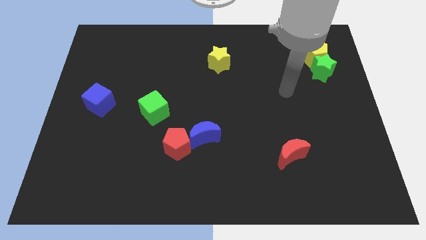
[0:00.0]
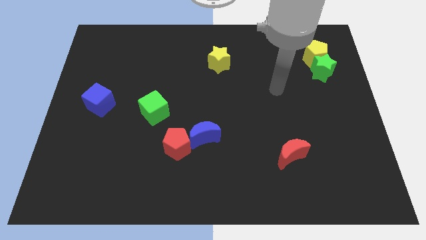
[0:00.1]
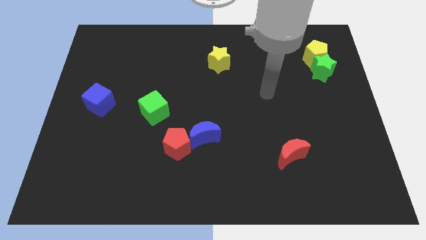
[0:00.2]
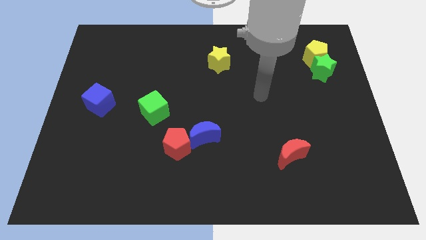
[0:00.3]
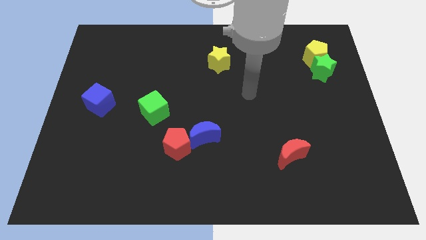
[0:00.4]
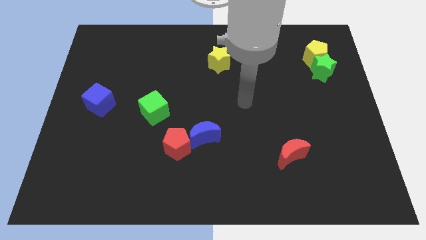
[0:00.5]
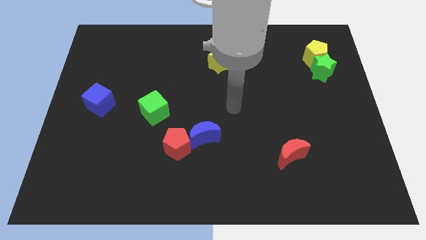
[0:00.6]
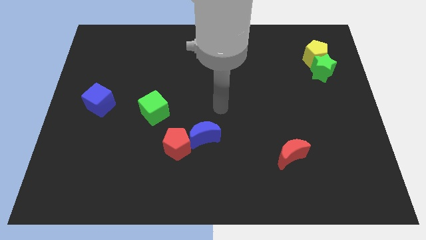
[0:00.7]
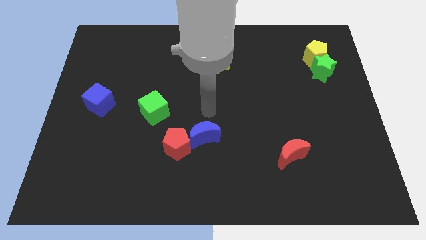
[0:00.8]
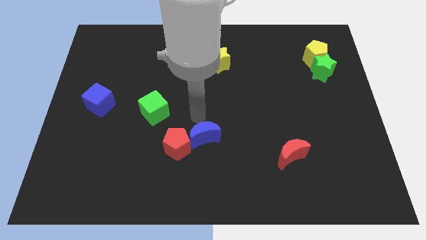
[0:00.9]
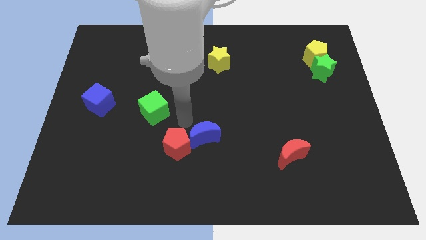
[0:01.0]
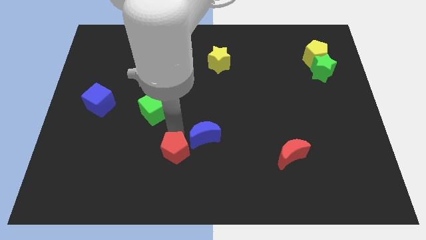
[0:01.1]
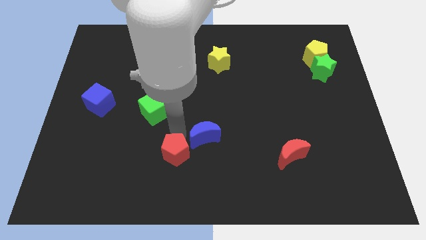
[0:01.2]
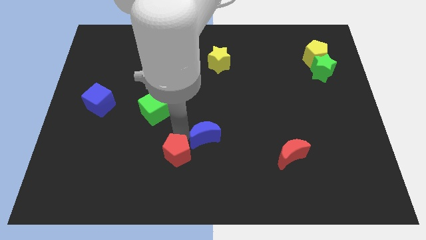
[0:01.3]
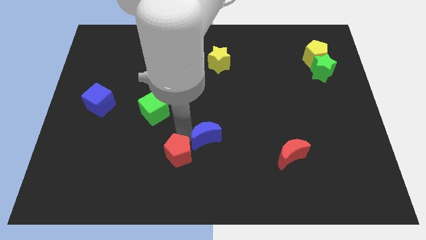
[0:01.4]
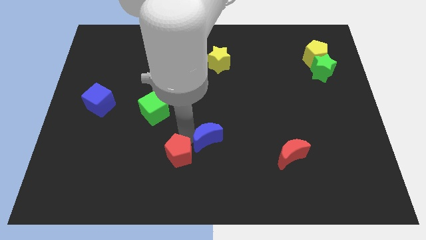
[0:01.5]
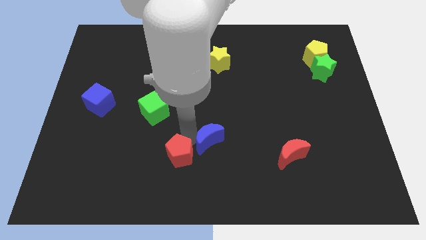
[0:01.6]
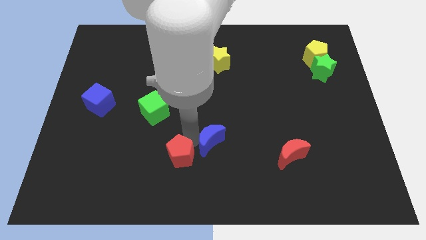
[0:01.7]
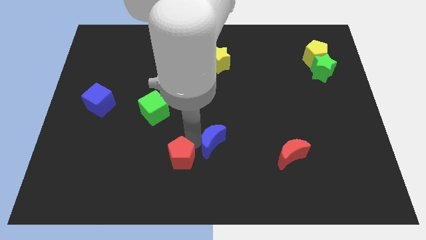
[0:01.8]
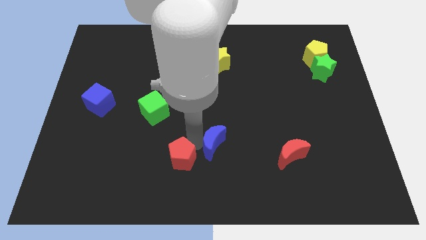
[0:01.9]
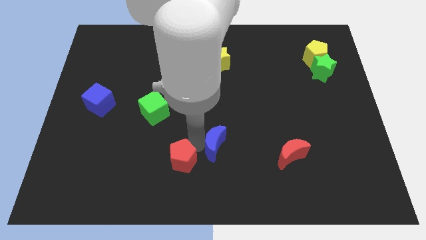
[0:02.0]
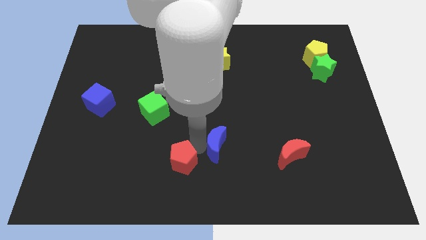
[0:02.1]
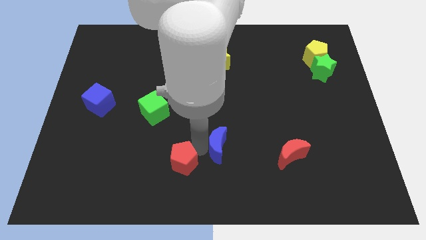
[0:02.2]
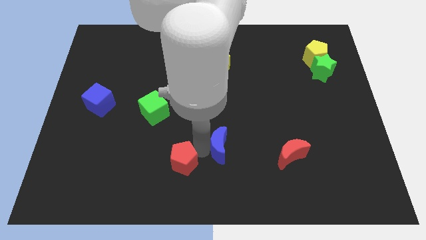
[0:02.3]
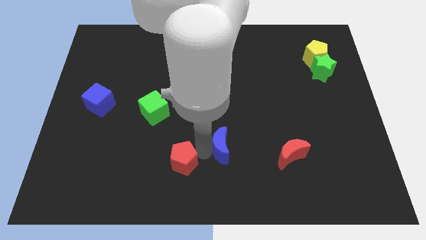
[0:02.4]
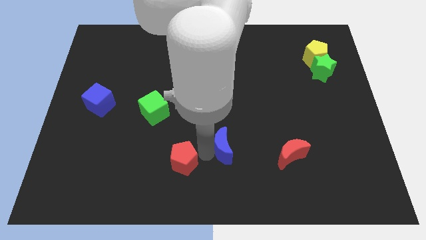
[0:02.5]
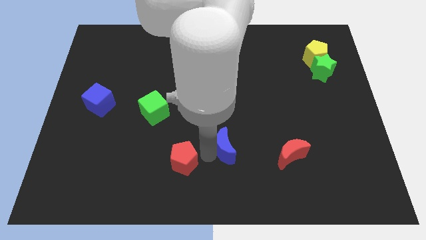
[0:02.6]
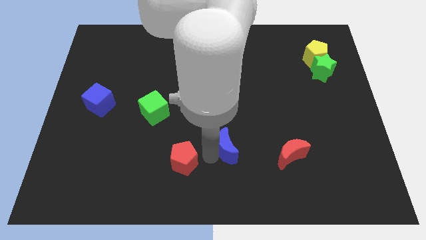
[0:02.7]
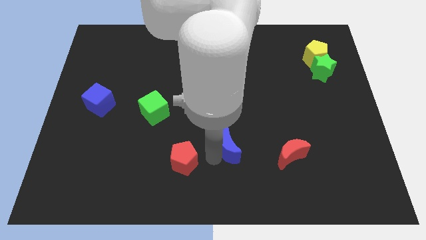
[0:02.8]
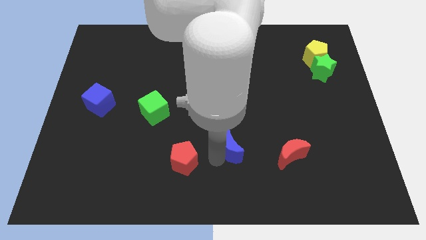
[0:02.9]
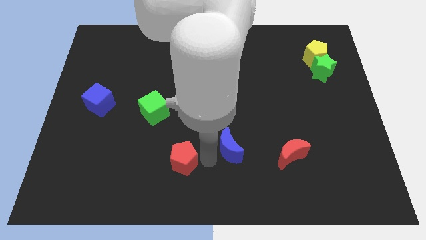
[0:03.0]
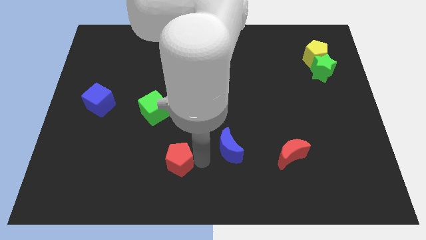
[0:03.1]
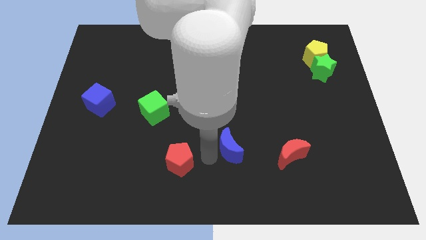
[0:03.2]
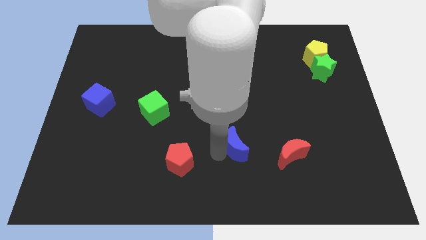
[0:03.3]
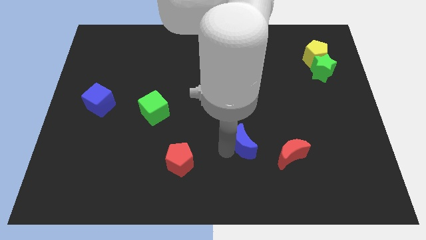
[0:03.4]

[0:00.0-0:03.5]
move the blue moon slightly to the right

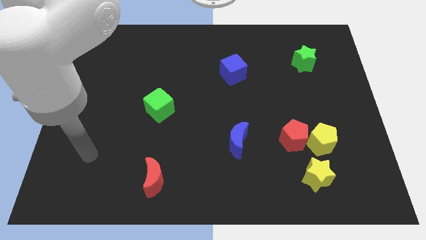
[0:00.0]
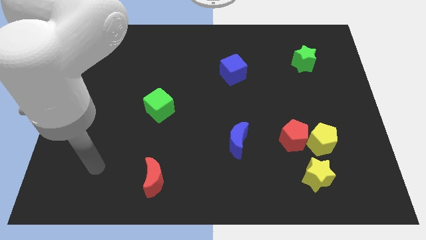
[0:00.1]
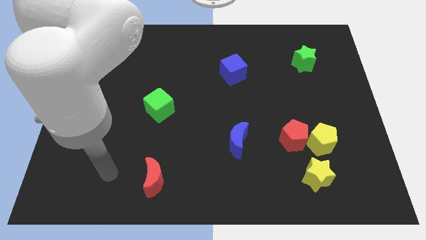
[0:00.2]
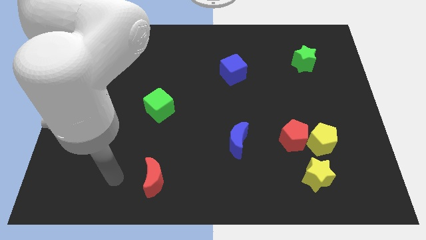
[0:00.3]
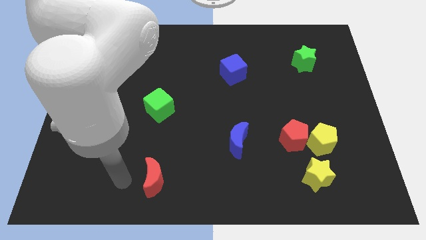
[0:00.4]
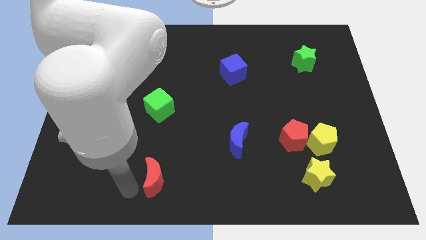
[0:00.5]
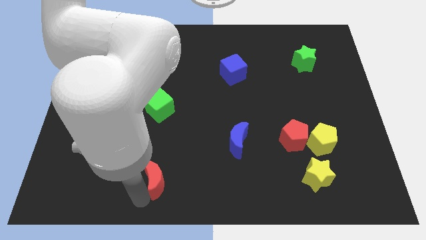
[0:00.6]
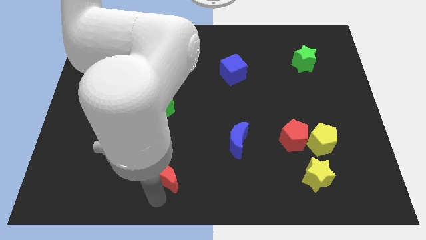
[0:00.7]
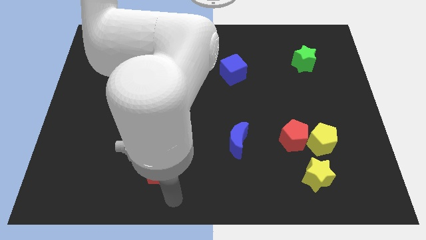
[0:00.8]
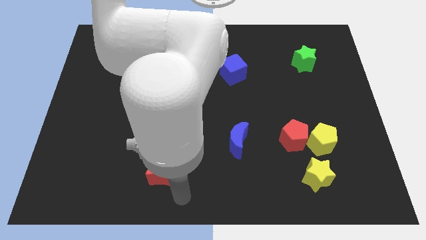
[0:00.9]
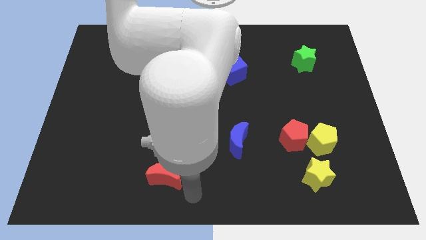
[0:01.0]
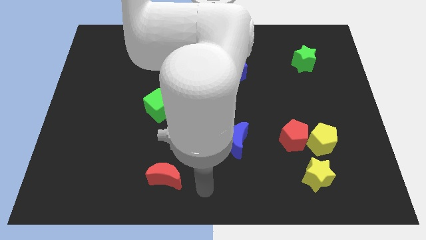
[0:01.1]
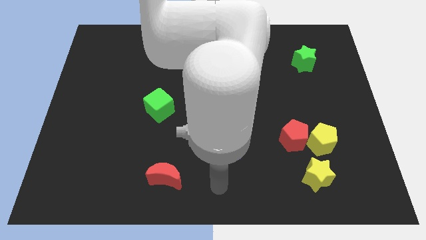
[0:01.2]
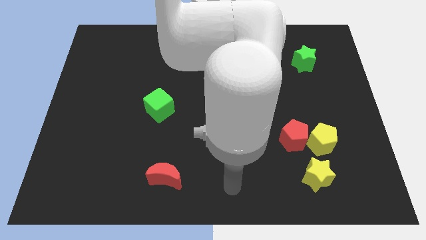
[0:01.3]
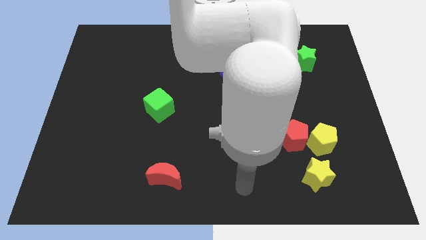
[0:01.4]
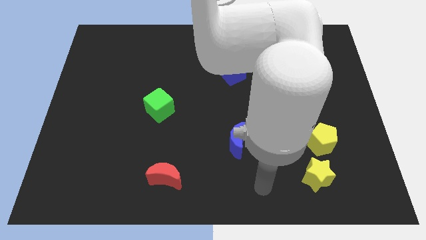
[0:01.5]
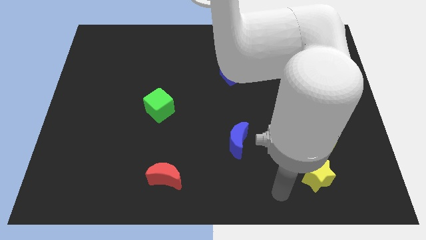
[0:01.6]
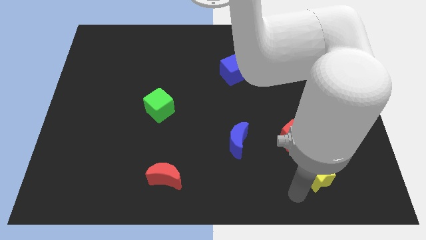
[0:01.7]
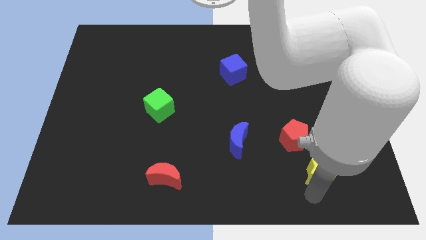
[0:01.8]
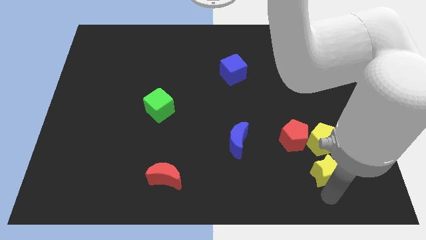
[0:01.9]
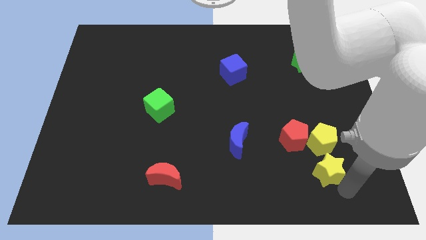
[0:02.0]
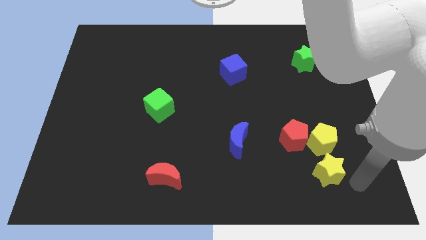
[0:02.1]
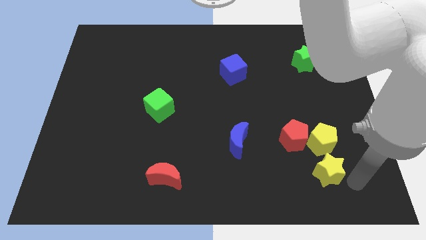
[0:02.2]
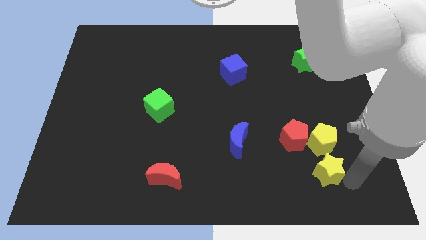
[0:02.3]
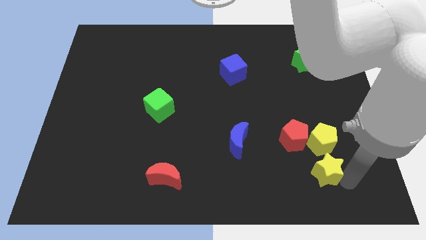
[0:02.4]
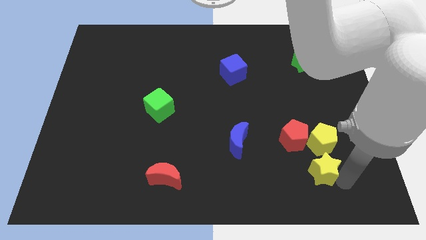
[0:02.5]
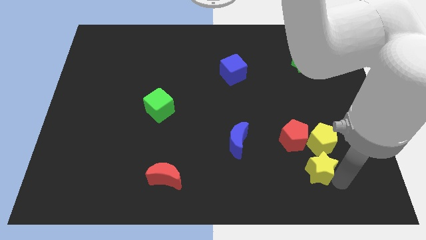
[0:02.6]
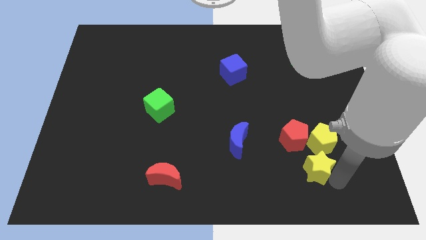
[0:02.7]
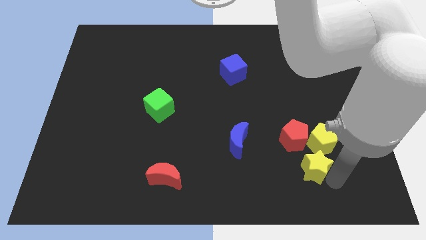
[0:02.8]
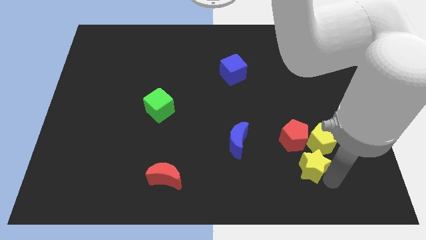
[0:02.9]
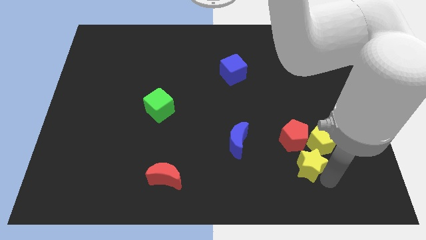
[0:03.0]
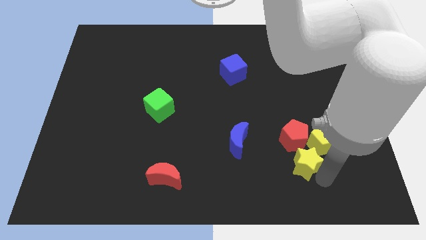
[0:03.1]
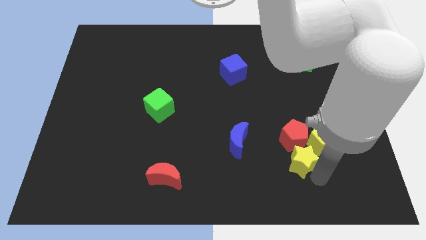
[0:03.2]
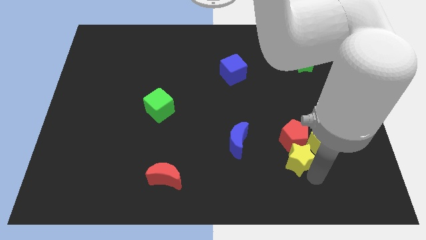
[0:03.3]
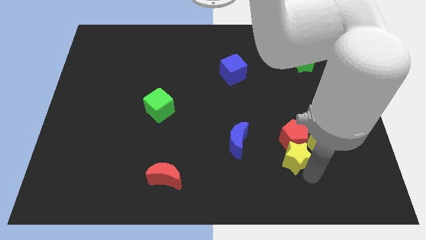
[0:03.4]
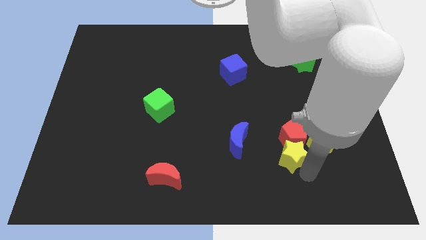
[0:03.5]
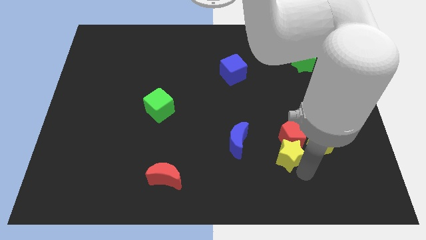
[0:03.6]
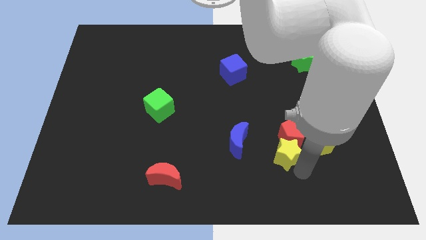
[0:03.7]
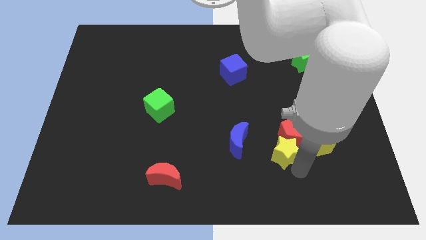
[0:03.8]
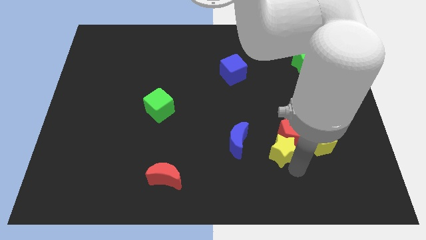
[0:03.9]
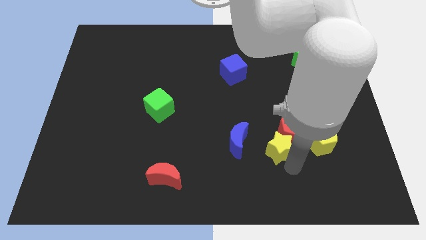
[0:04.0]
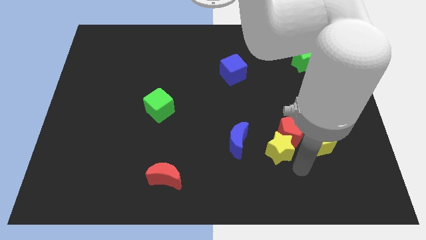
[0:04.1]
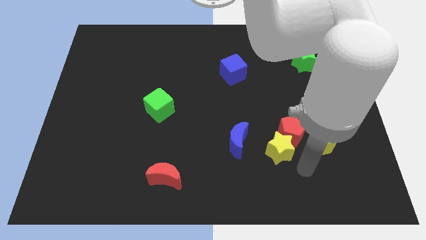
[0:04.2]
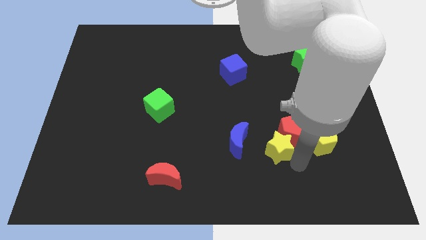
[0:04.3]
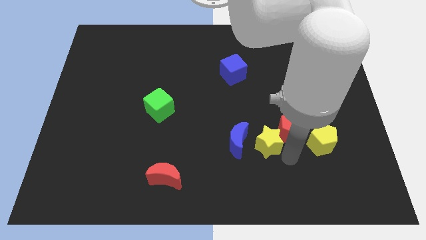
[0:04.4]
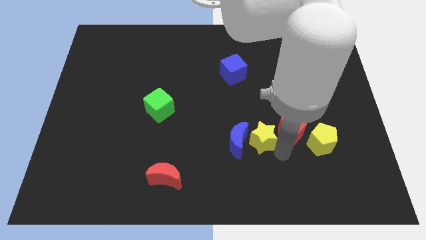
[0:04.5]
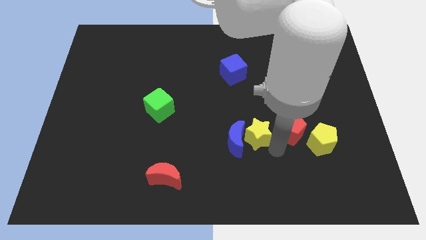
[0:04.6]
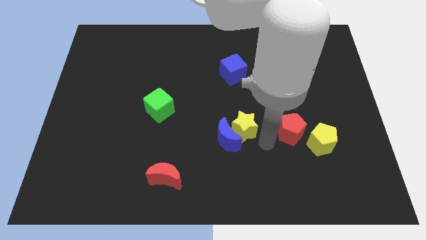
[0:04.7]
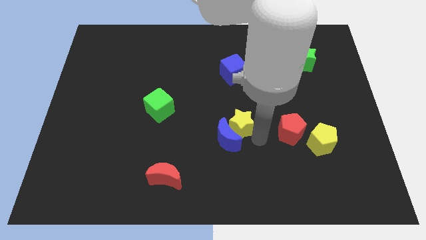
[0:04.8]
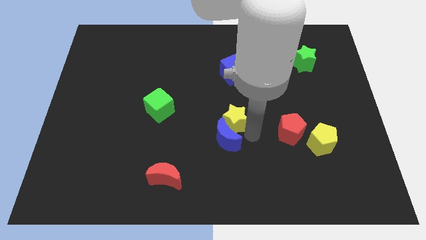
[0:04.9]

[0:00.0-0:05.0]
push the yellow star up and left
